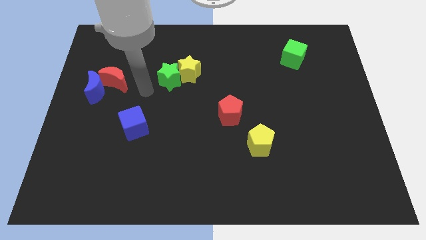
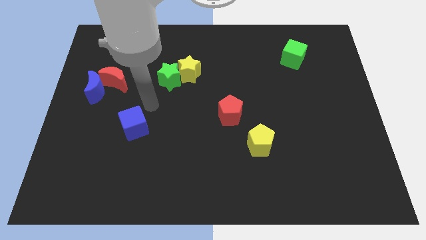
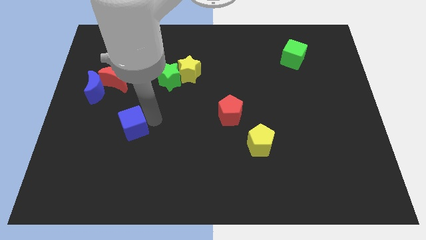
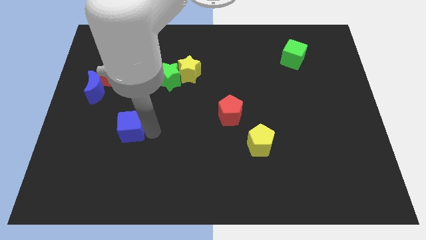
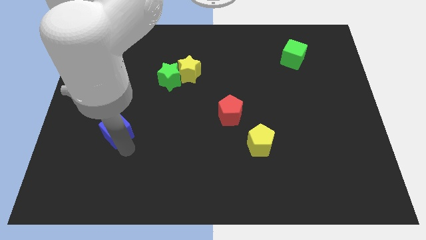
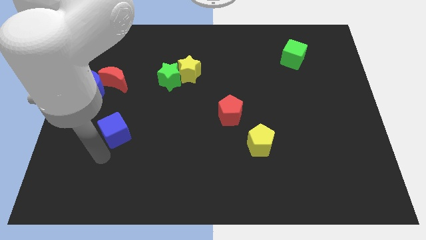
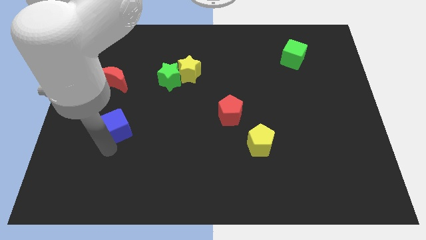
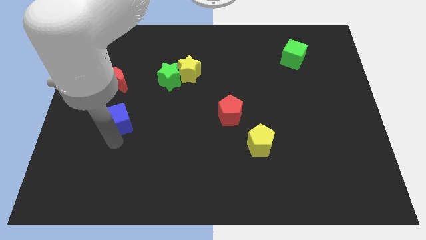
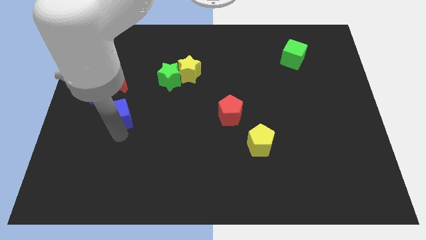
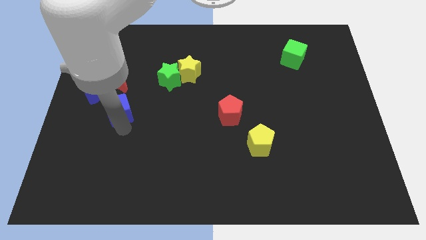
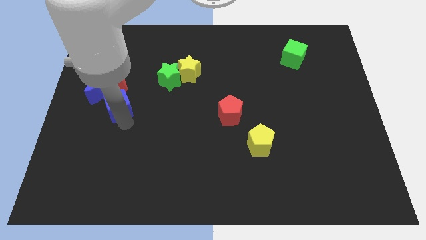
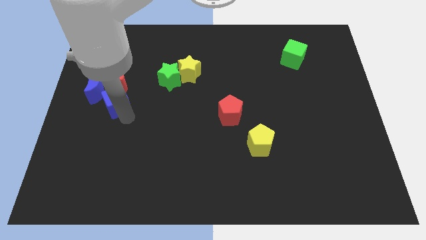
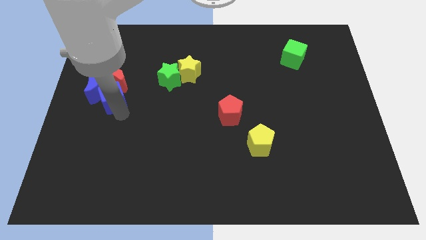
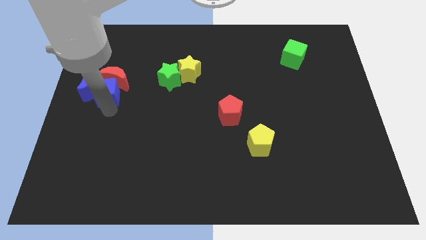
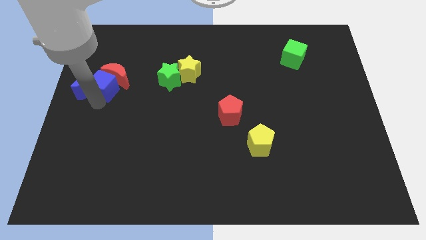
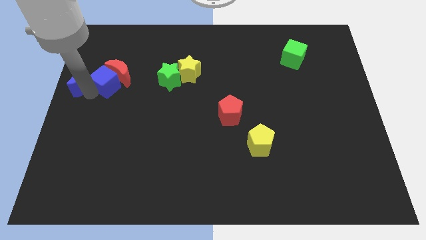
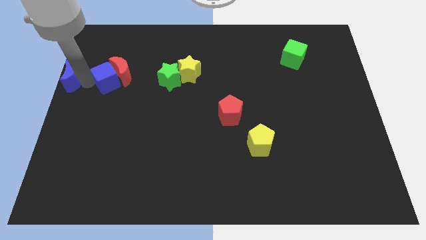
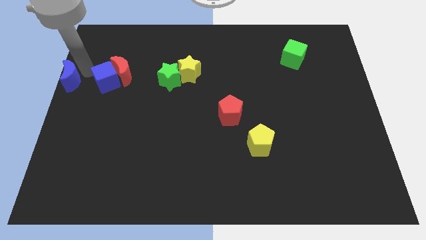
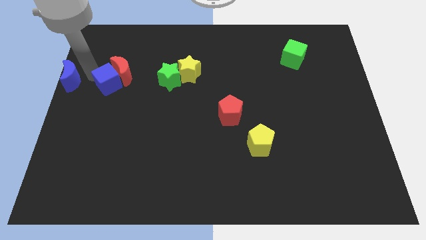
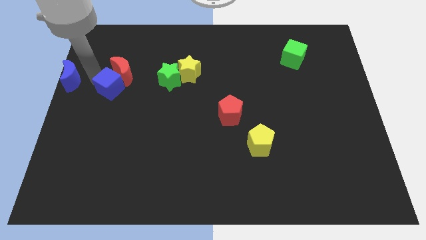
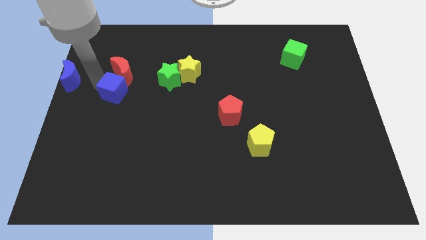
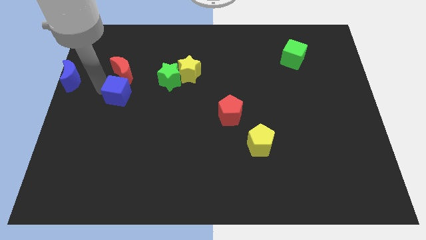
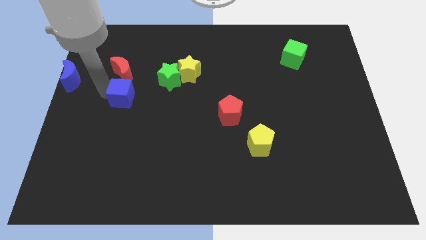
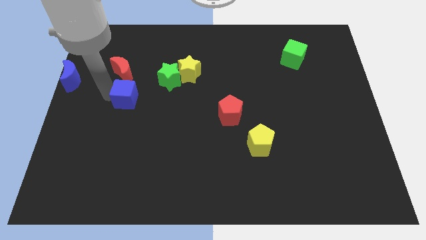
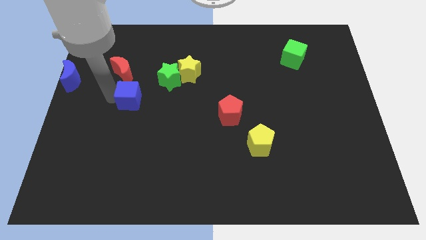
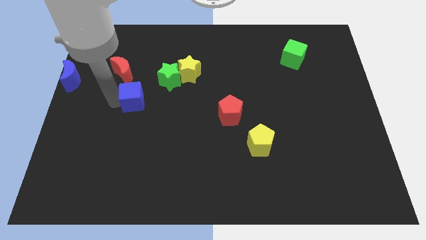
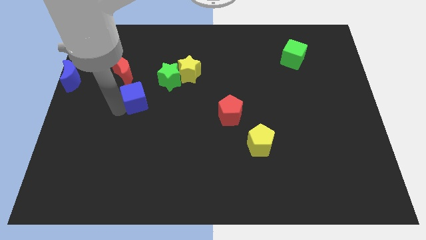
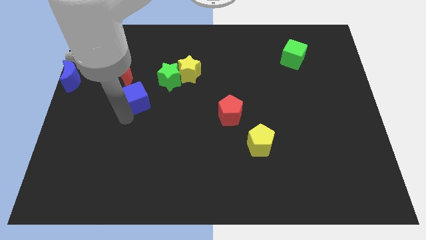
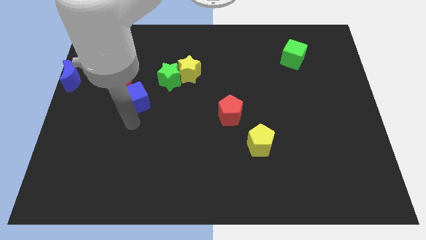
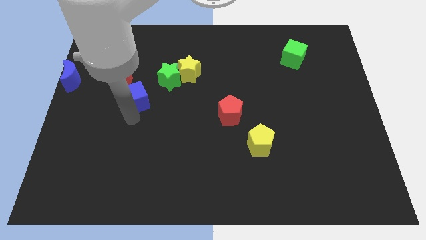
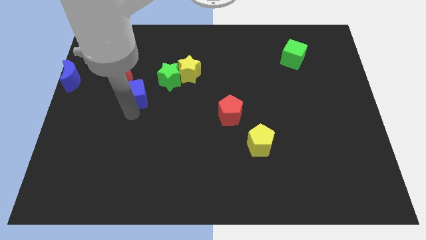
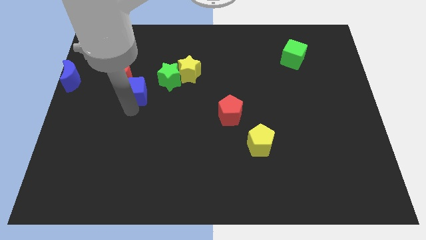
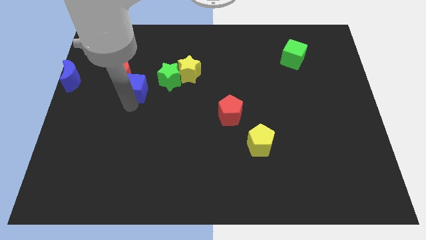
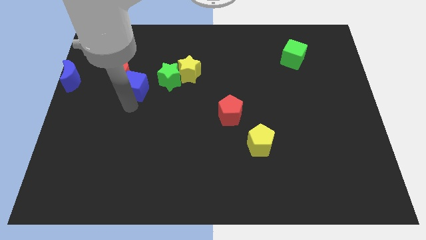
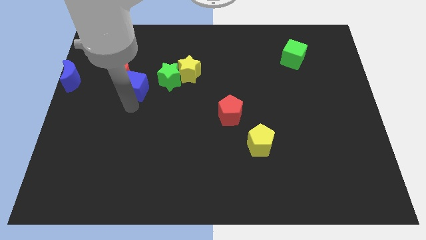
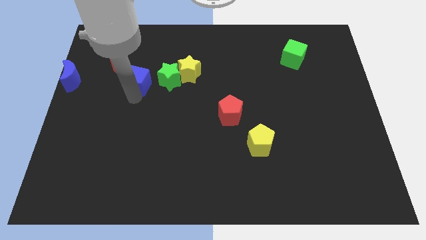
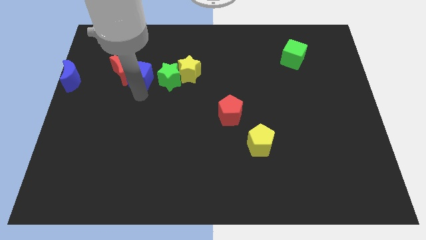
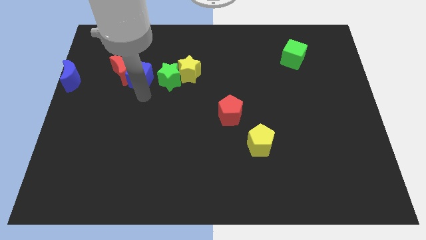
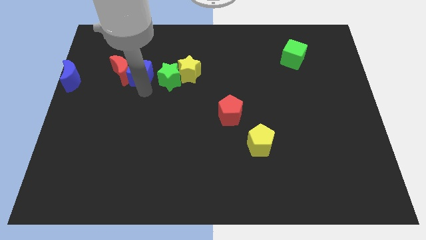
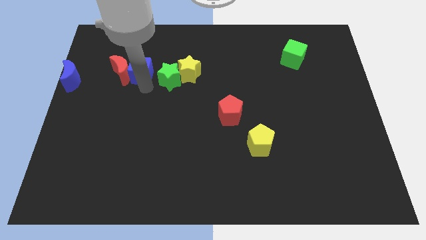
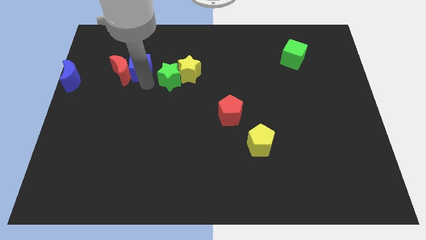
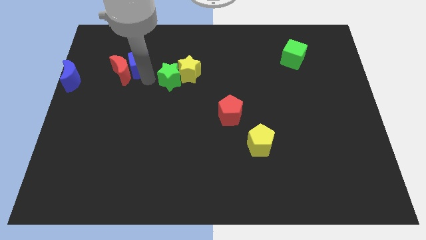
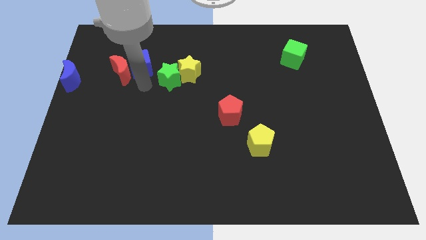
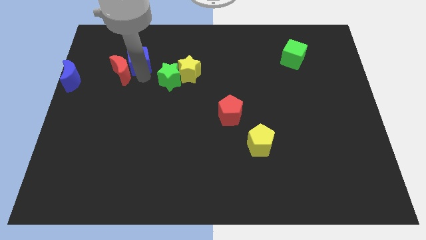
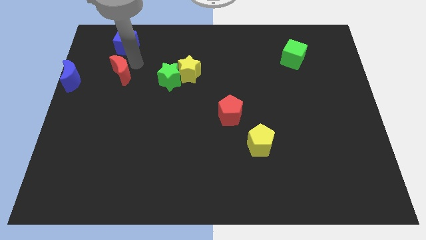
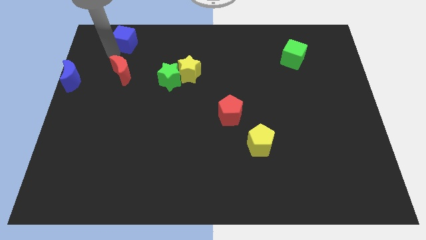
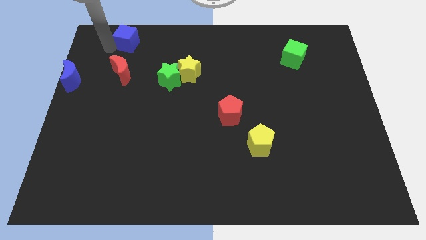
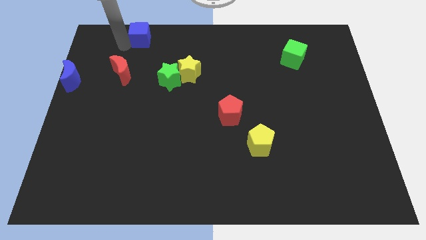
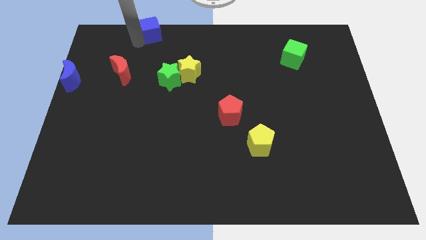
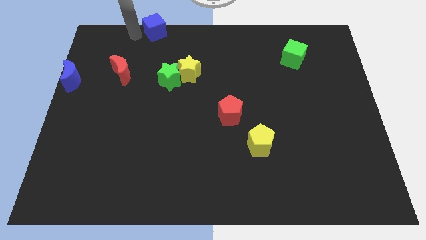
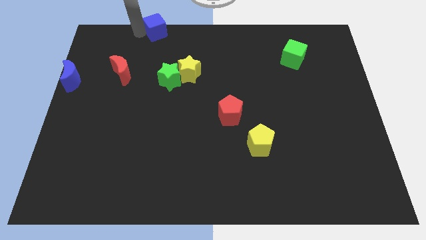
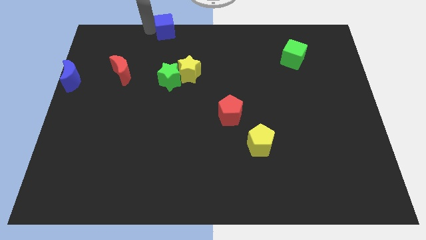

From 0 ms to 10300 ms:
put the blue cube to the towards your base

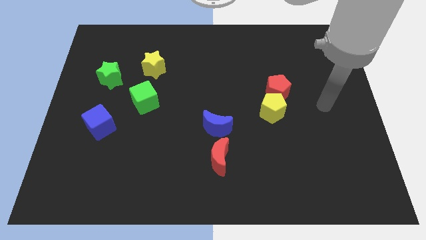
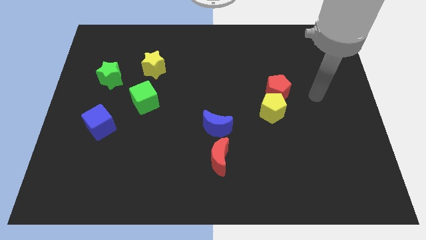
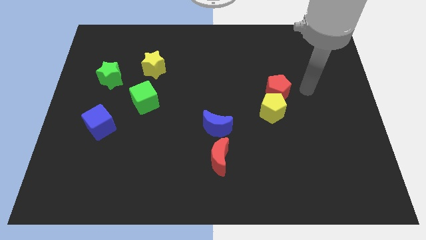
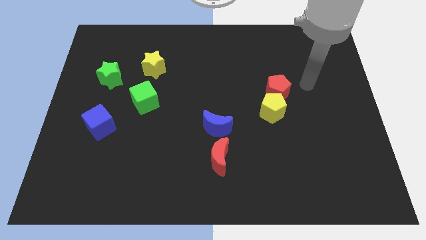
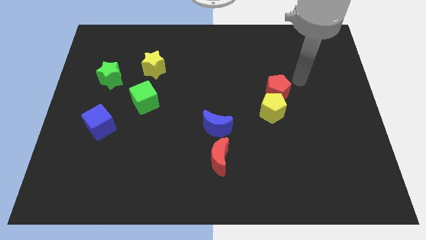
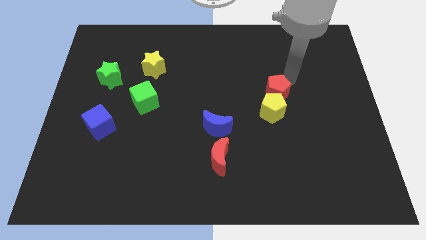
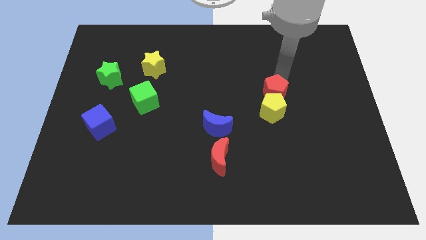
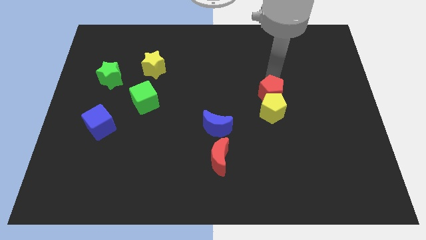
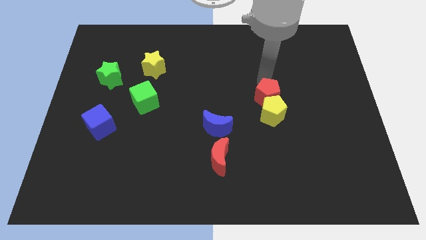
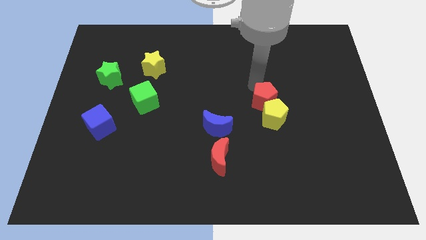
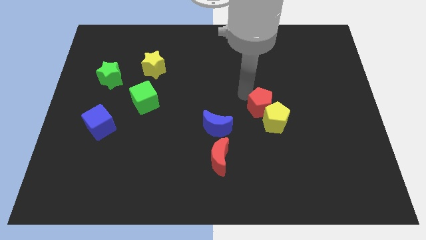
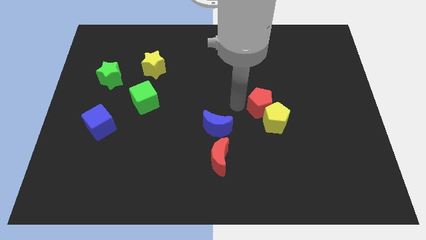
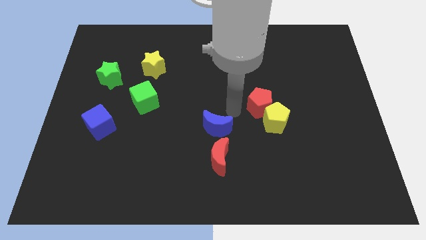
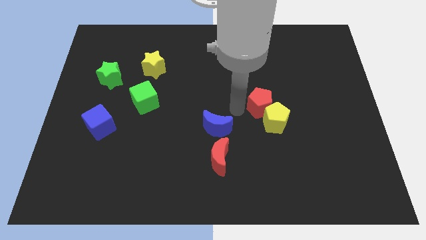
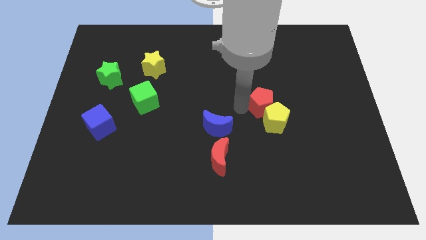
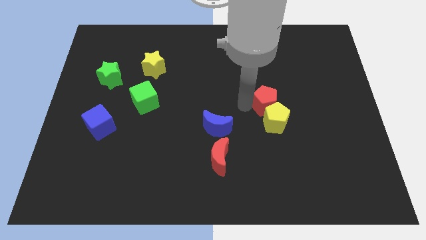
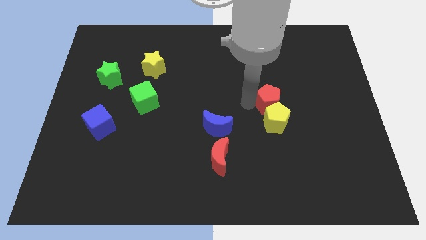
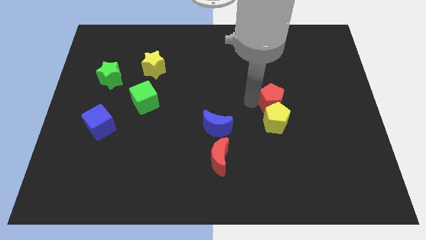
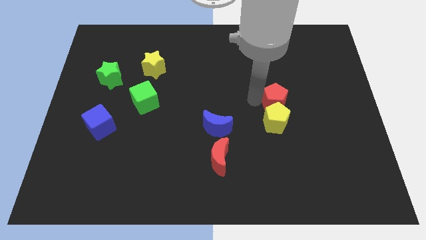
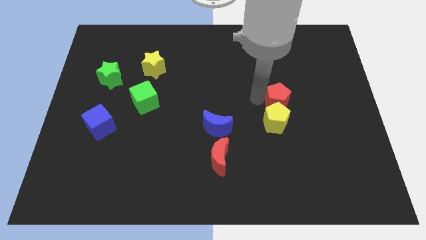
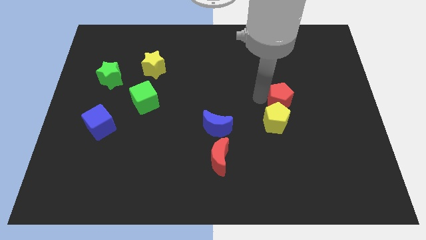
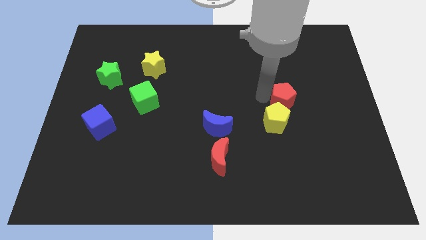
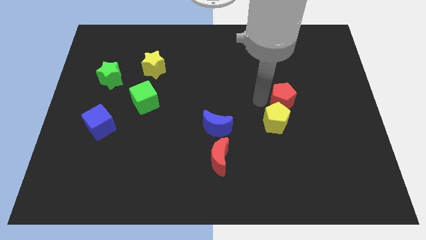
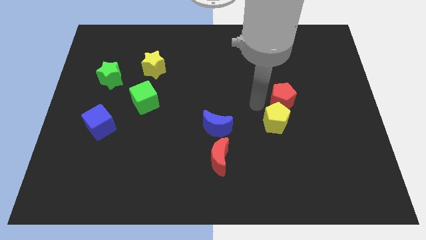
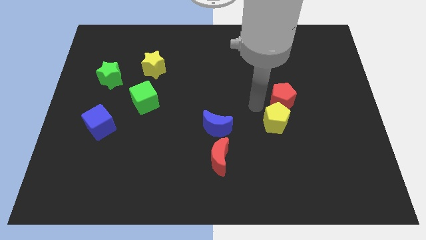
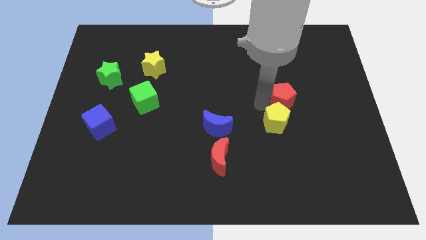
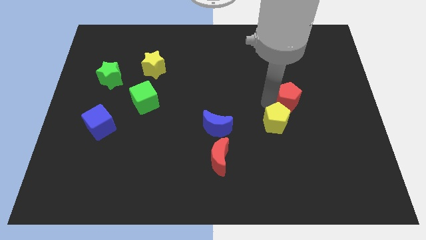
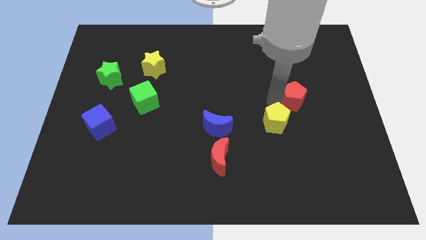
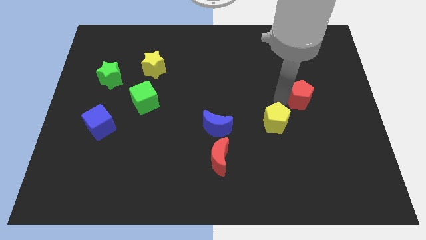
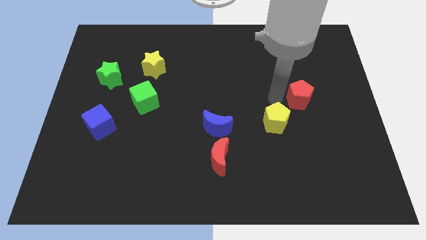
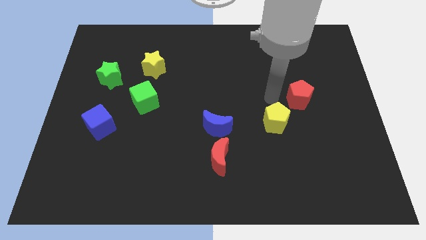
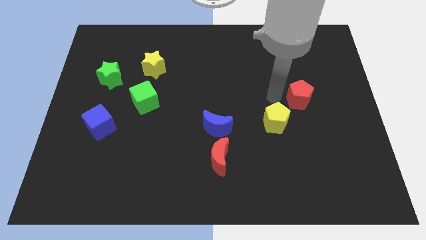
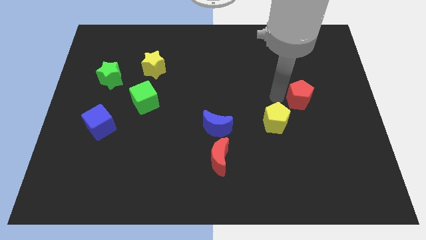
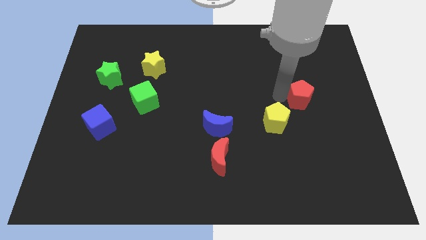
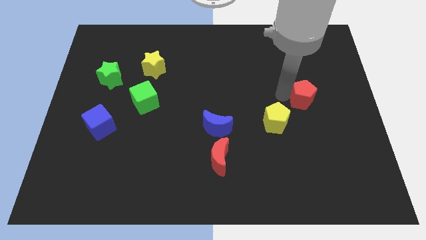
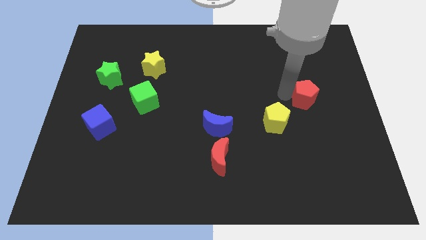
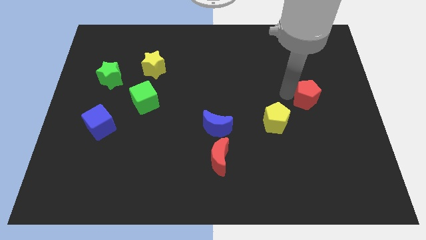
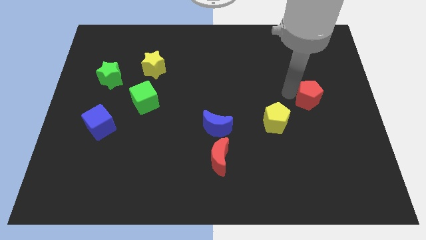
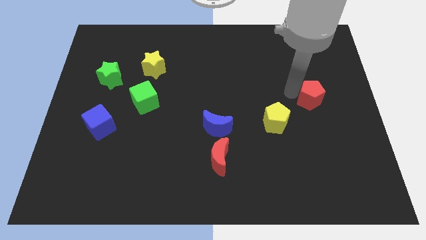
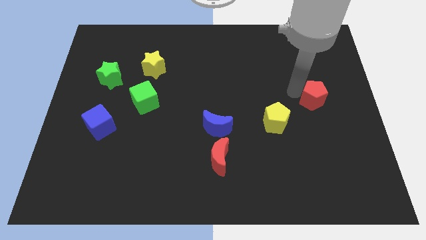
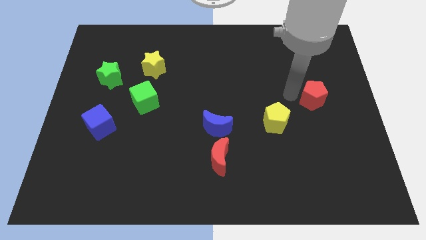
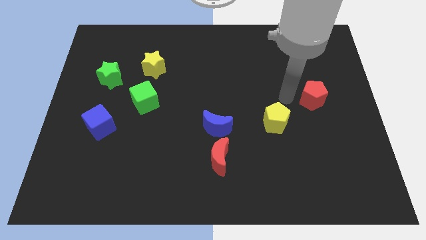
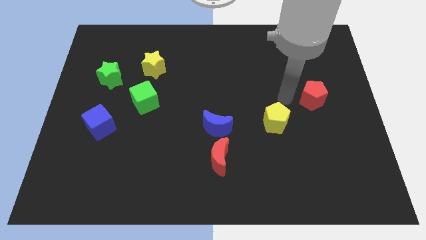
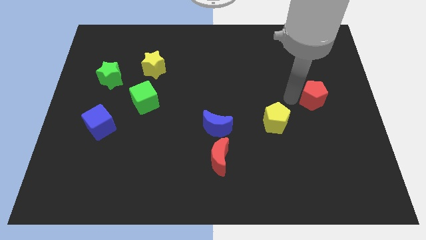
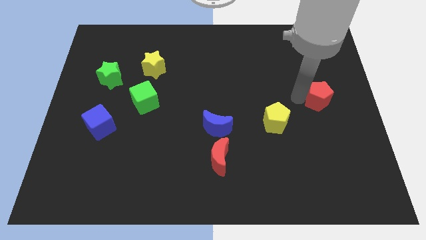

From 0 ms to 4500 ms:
slide the red pentagon to the right side
